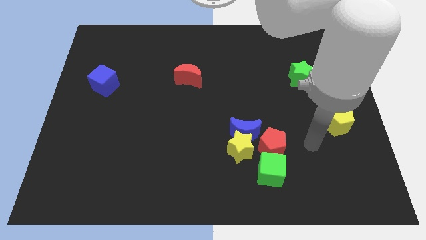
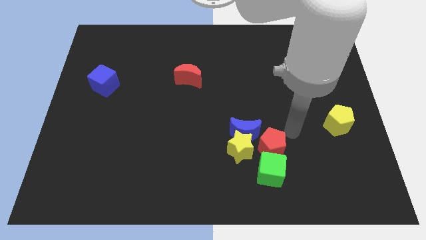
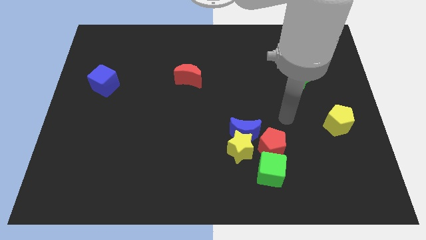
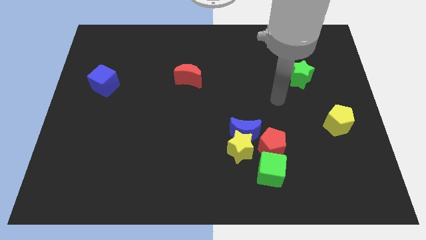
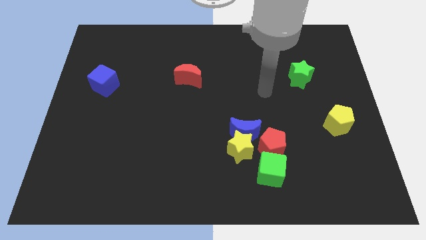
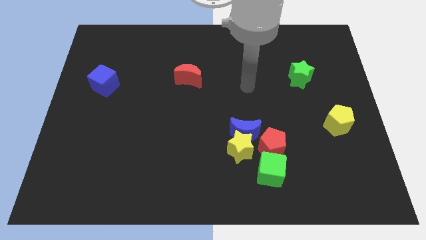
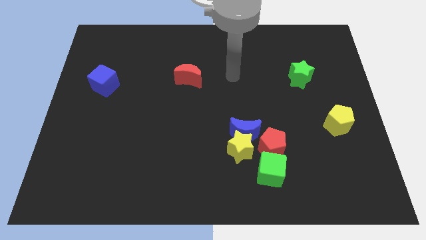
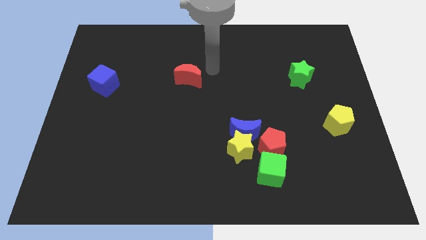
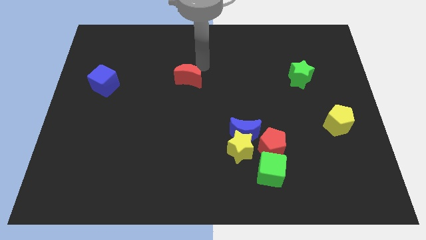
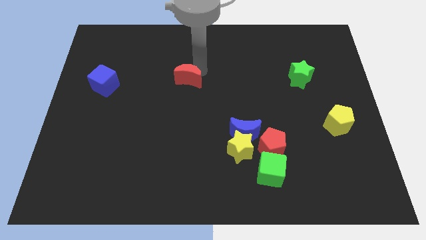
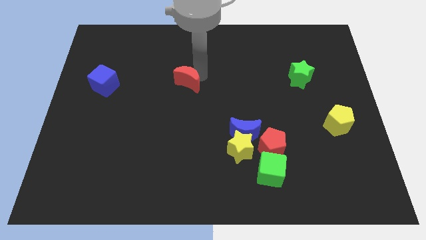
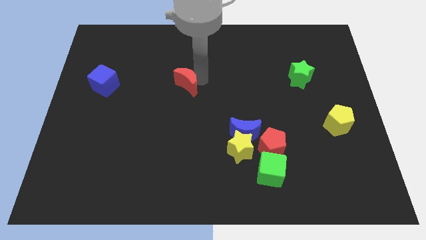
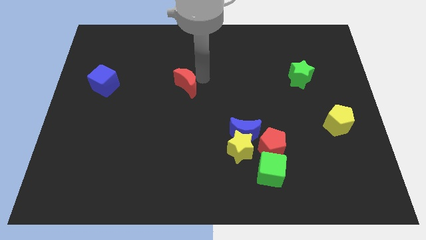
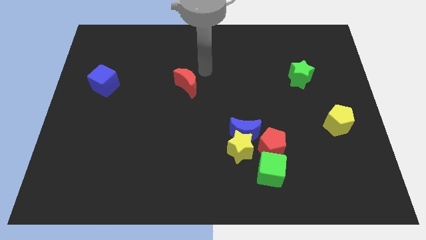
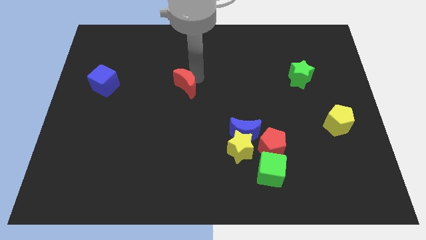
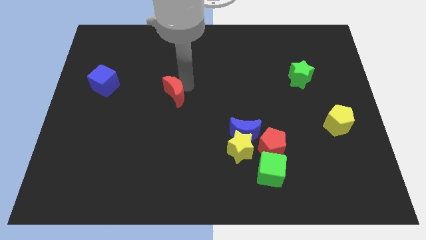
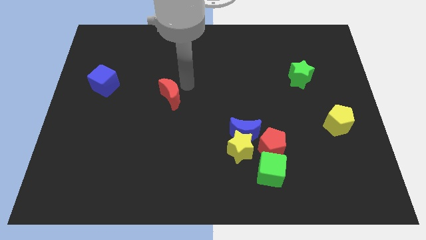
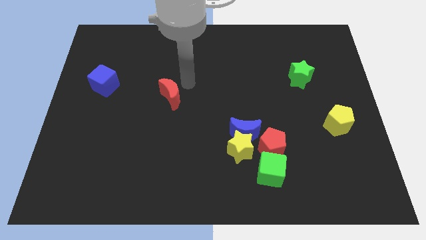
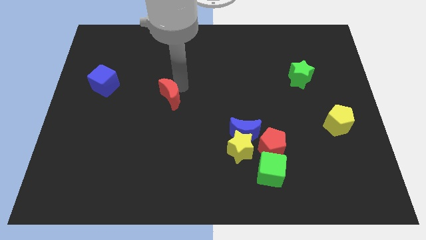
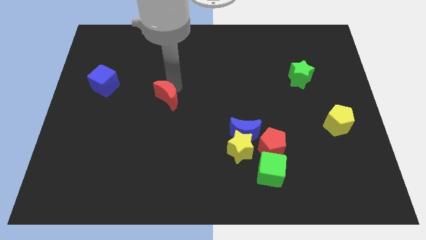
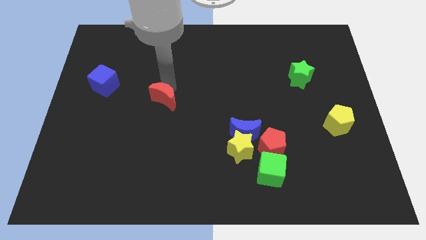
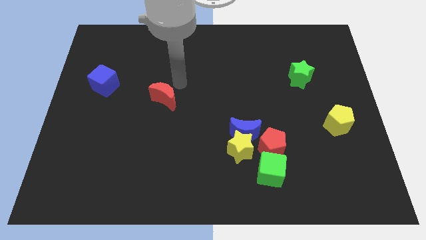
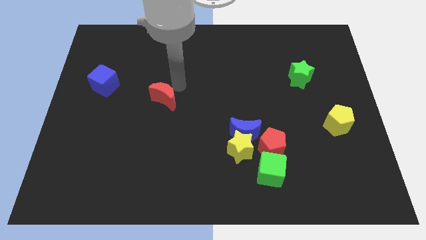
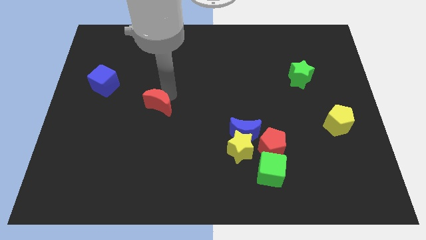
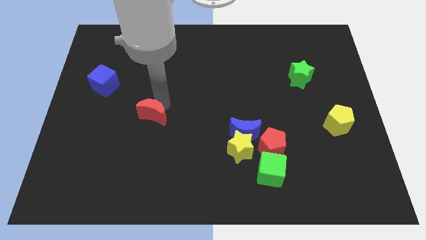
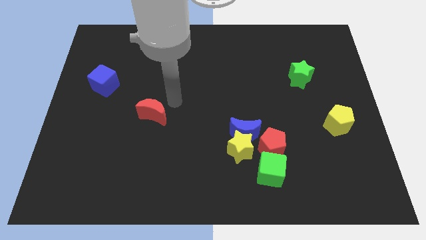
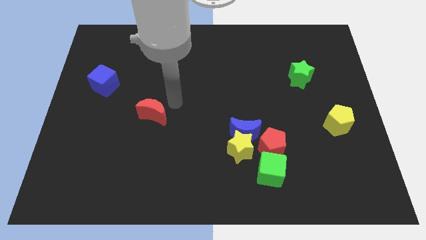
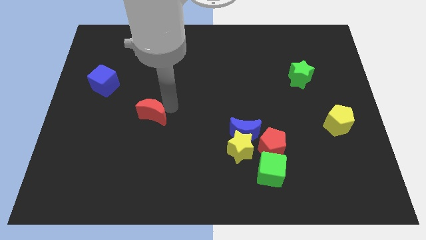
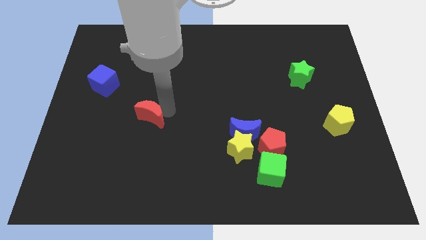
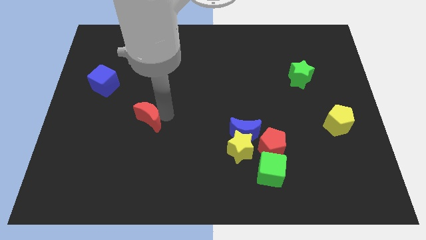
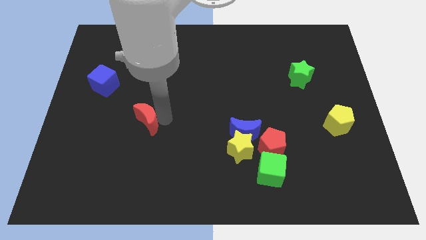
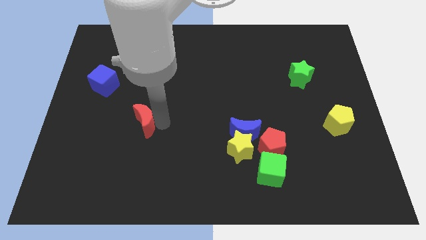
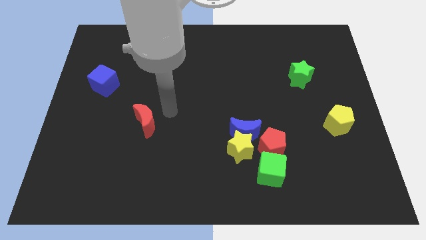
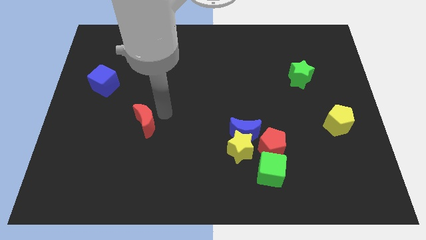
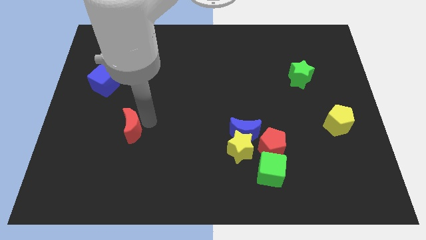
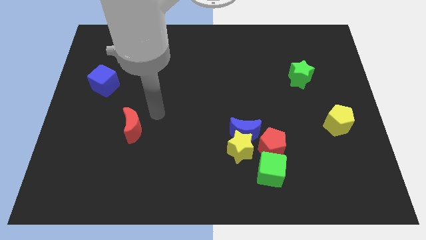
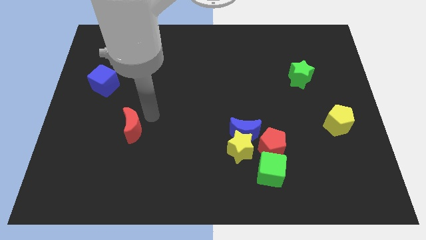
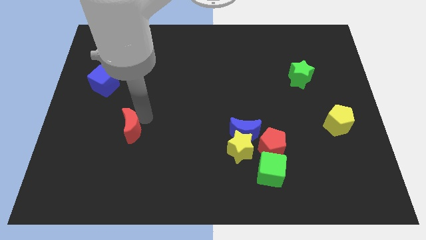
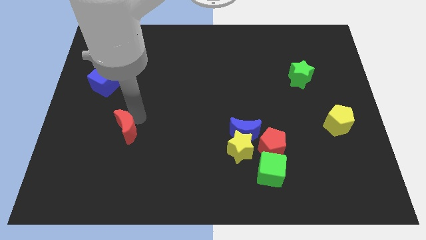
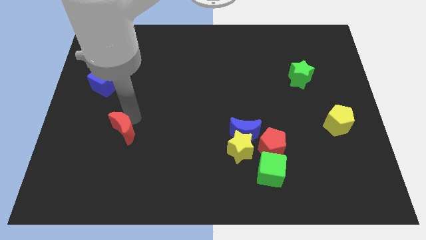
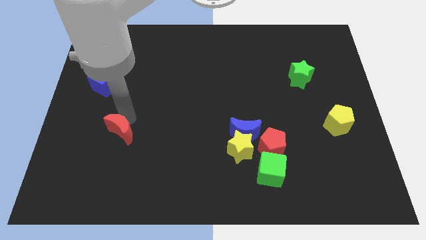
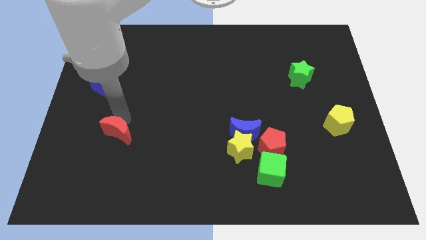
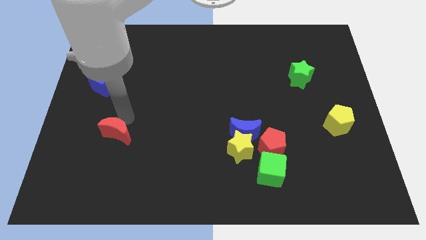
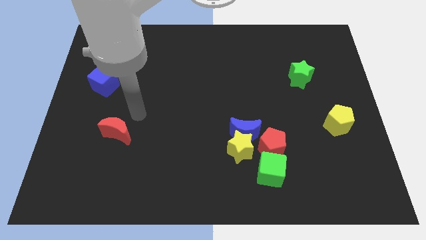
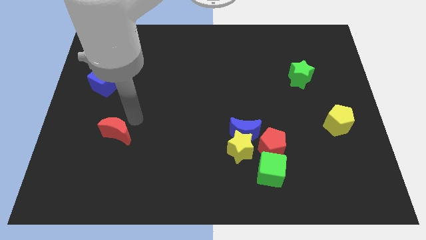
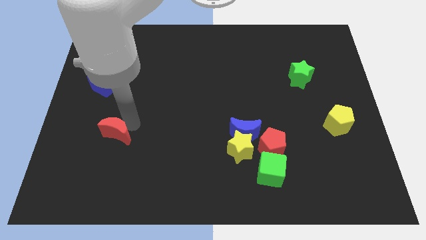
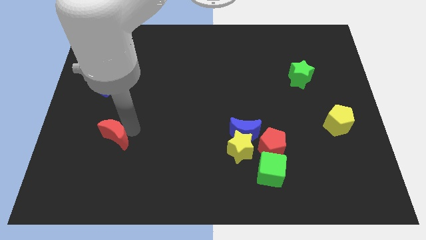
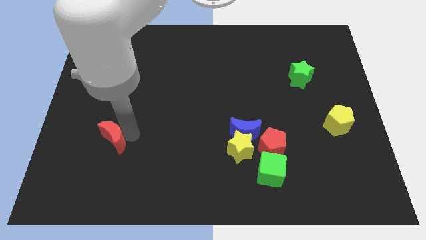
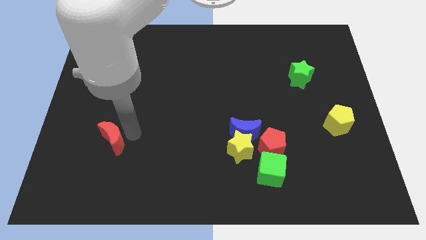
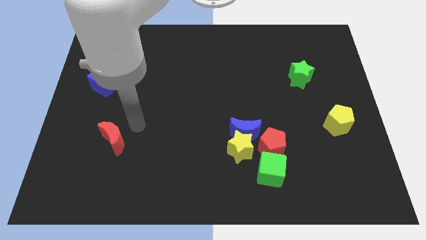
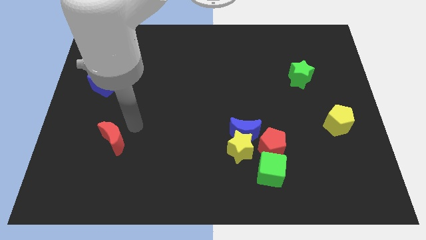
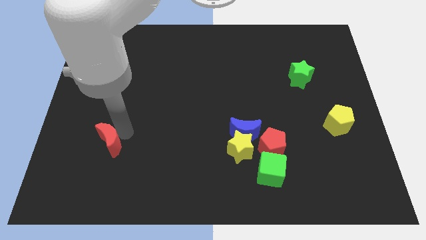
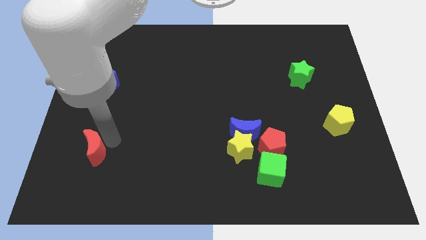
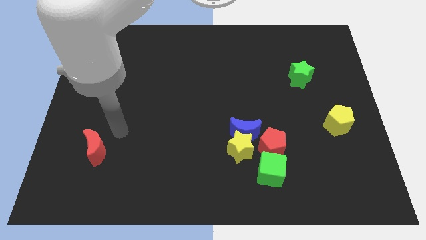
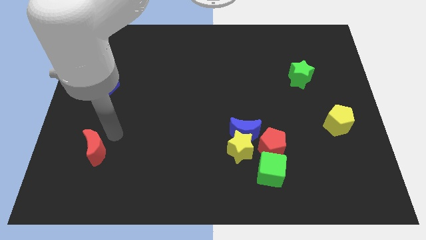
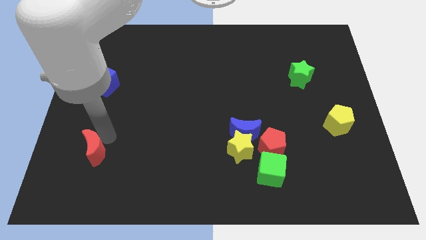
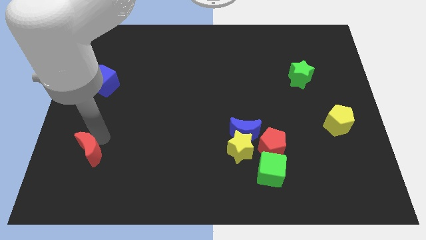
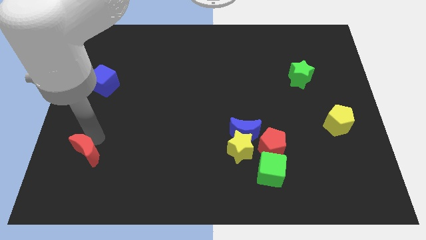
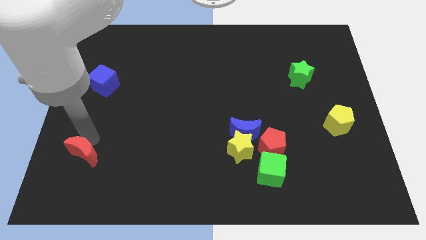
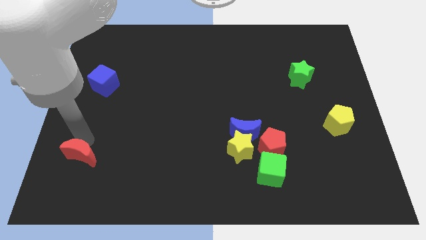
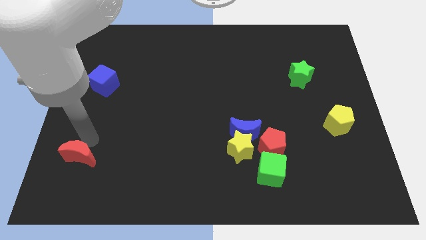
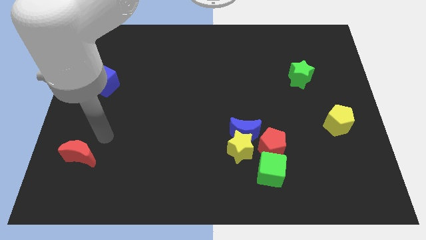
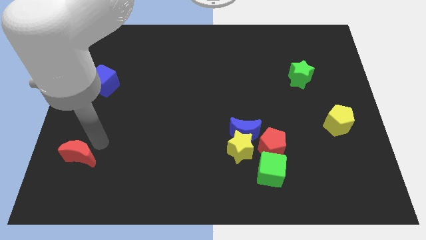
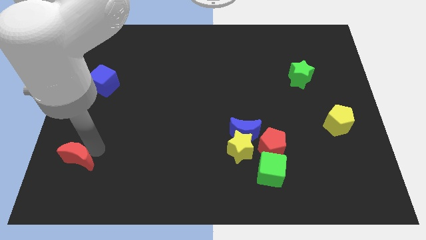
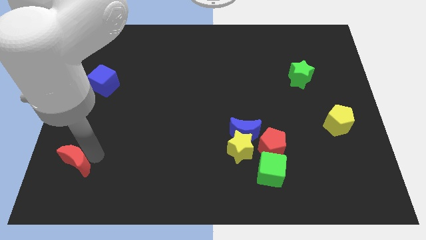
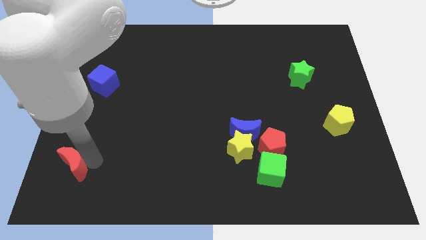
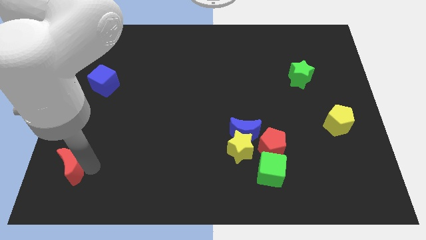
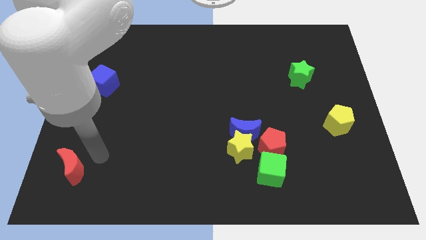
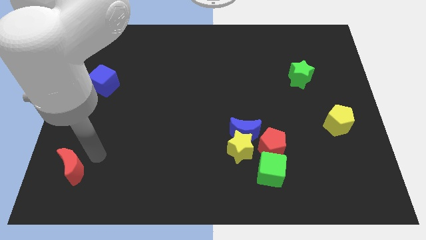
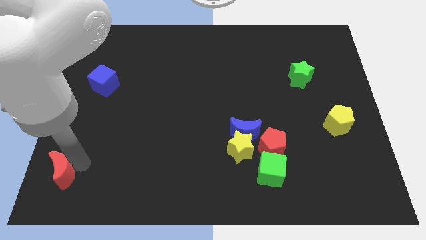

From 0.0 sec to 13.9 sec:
push the red moon to the bottom left of the board
